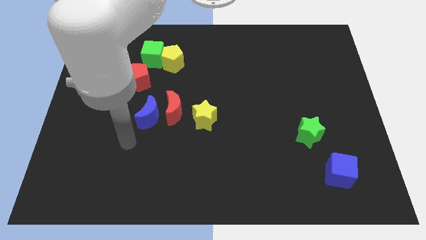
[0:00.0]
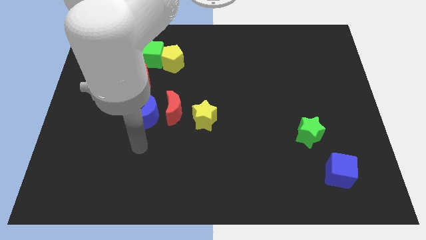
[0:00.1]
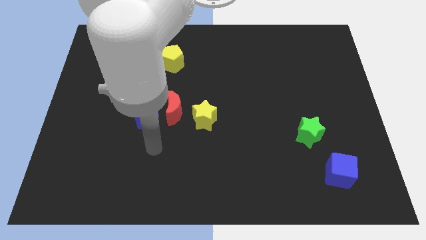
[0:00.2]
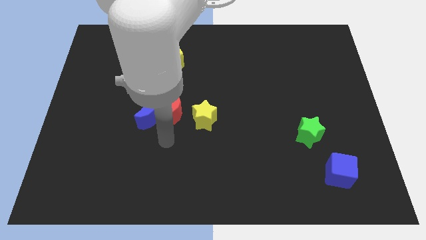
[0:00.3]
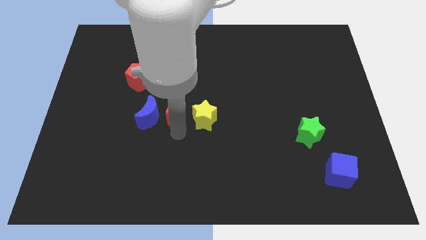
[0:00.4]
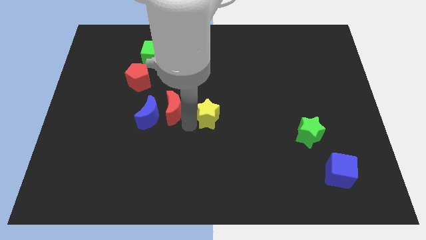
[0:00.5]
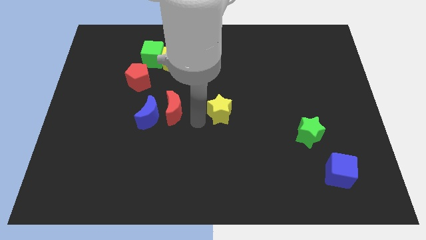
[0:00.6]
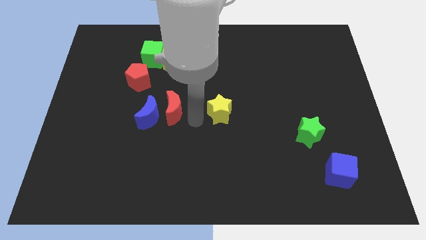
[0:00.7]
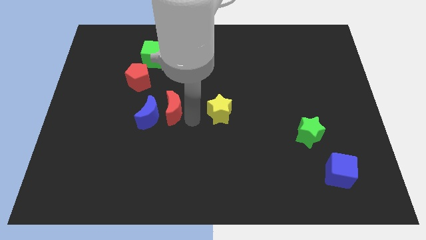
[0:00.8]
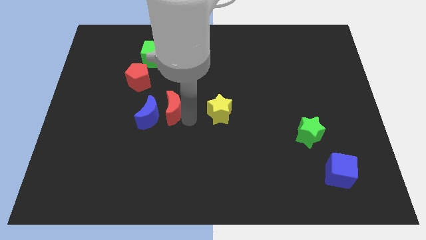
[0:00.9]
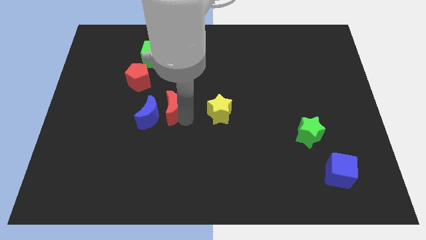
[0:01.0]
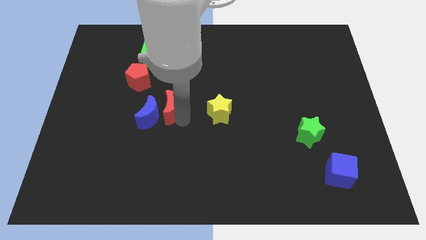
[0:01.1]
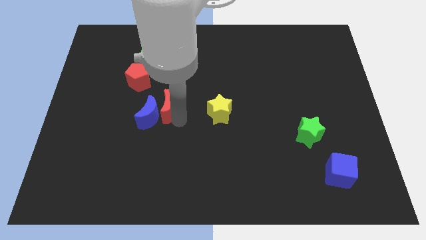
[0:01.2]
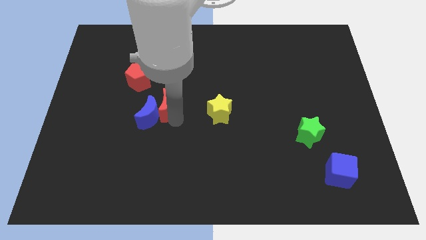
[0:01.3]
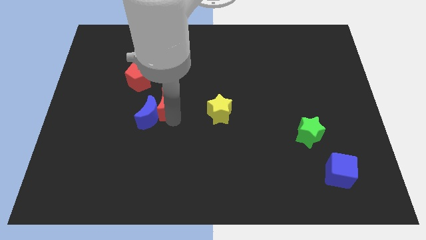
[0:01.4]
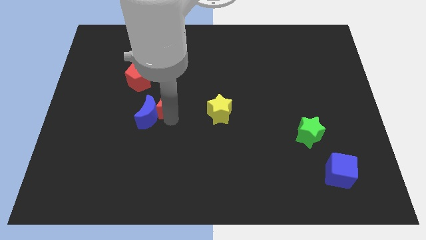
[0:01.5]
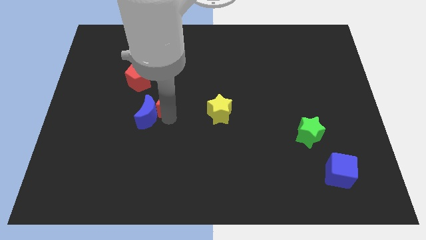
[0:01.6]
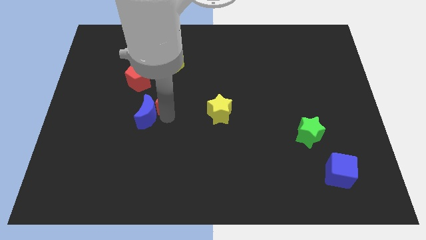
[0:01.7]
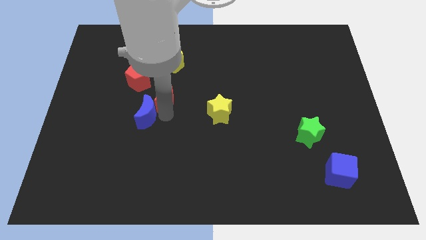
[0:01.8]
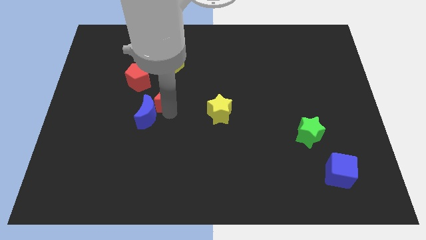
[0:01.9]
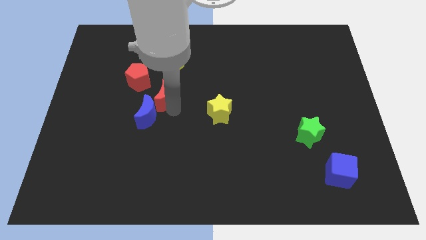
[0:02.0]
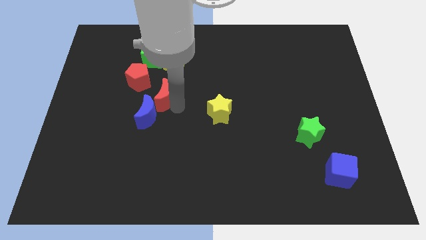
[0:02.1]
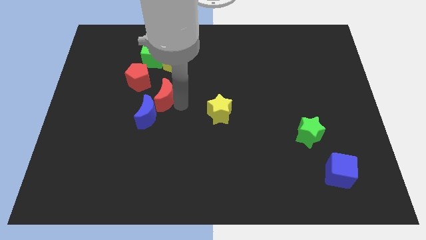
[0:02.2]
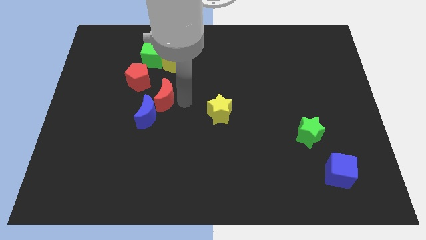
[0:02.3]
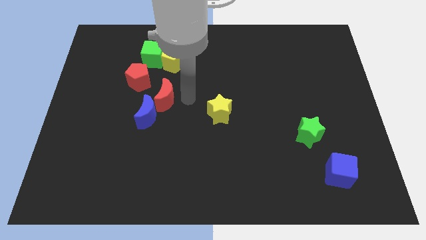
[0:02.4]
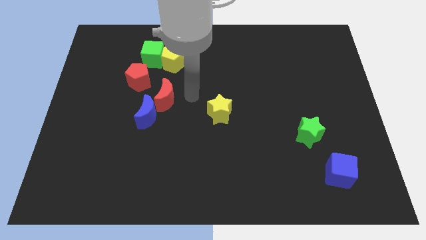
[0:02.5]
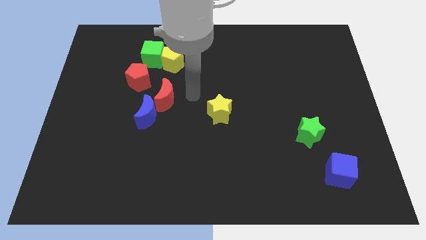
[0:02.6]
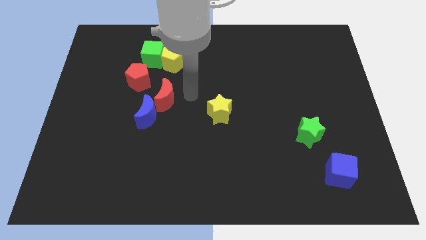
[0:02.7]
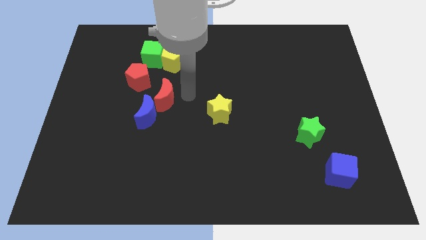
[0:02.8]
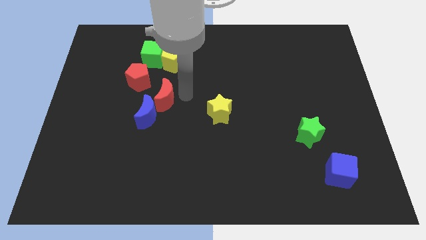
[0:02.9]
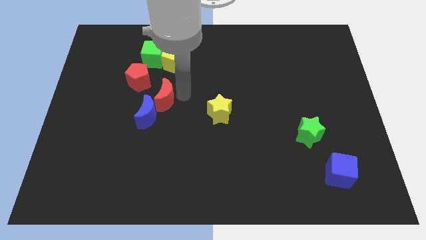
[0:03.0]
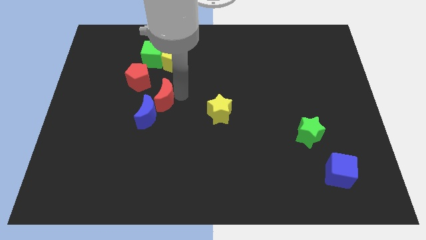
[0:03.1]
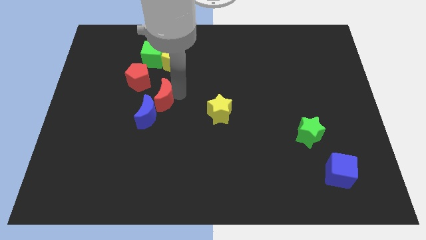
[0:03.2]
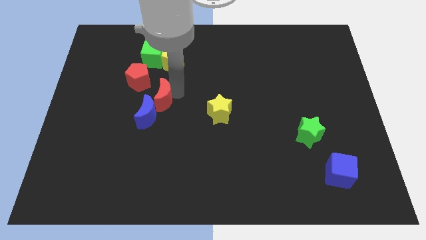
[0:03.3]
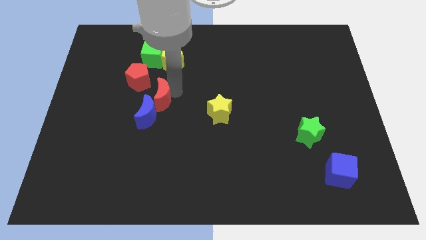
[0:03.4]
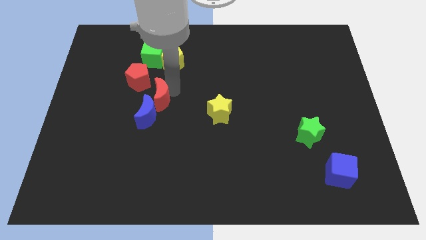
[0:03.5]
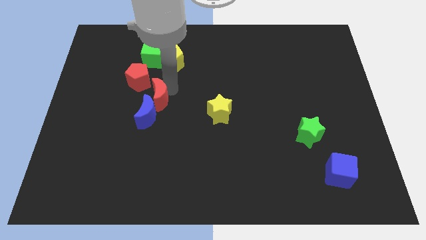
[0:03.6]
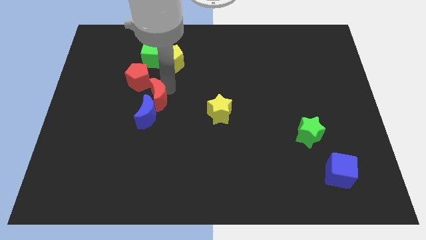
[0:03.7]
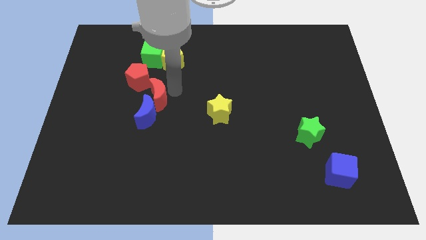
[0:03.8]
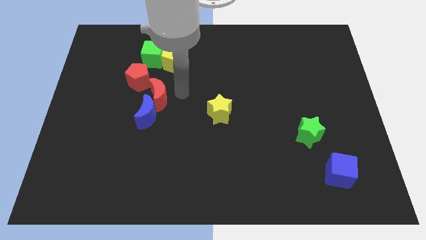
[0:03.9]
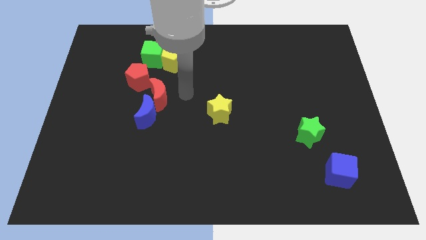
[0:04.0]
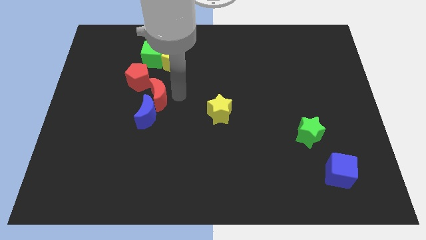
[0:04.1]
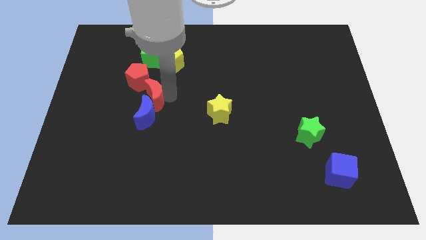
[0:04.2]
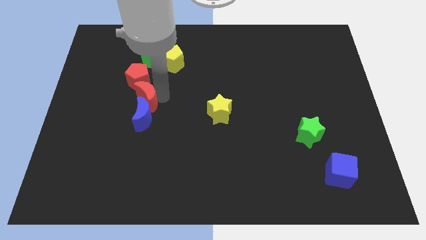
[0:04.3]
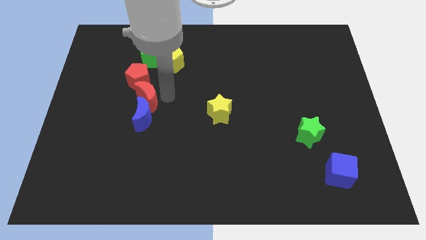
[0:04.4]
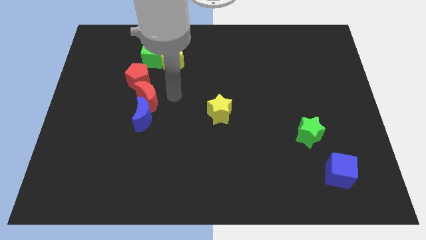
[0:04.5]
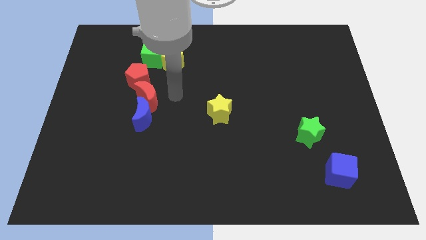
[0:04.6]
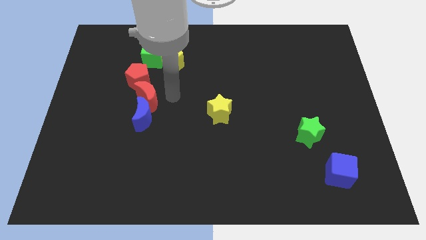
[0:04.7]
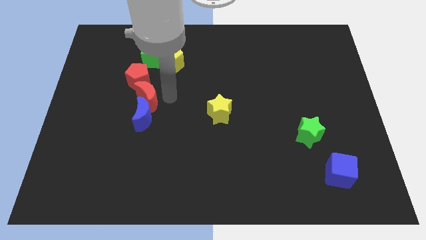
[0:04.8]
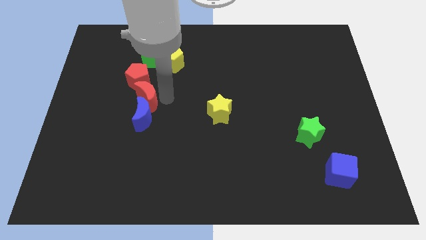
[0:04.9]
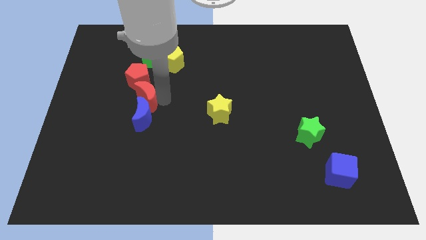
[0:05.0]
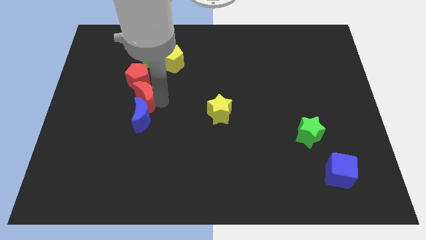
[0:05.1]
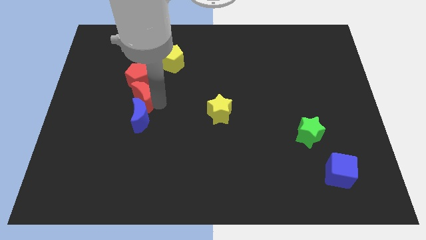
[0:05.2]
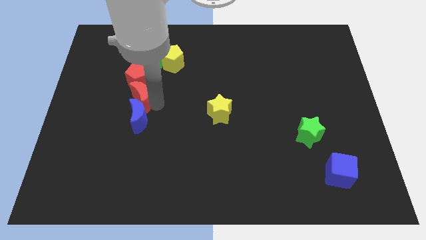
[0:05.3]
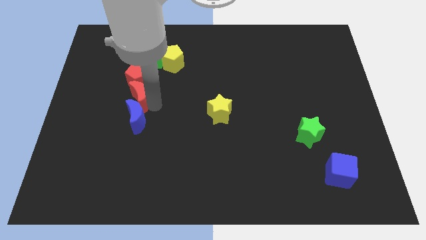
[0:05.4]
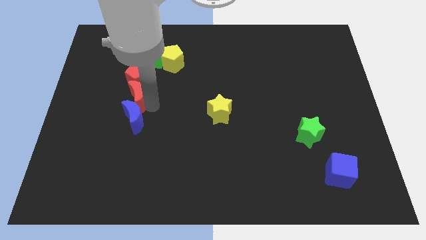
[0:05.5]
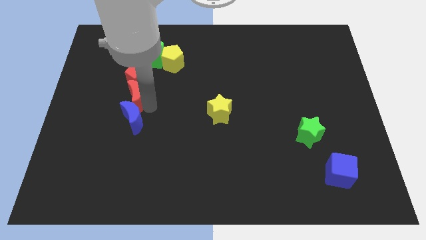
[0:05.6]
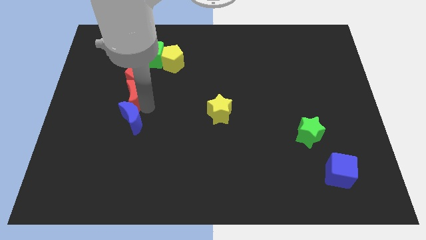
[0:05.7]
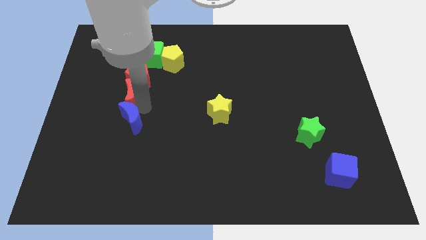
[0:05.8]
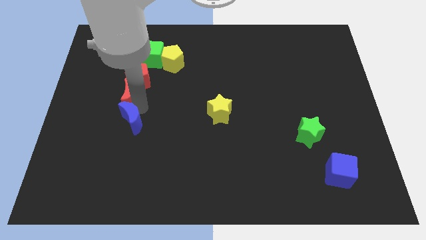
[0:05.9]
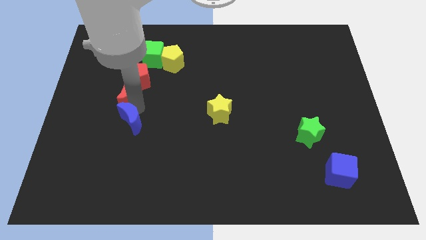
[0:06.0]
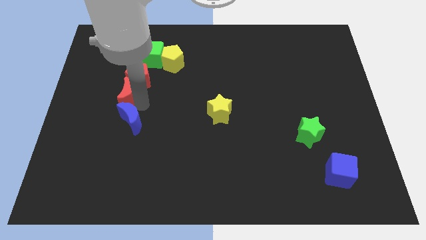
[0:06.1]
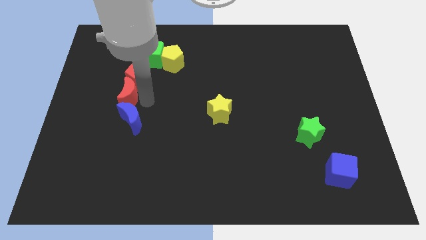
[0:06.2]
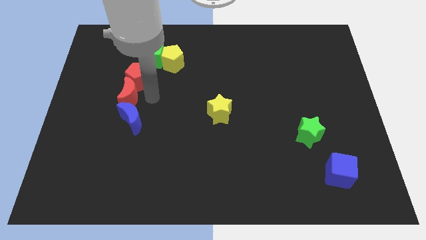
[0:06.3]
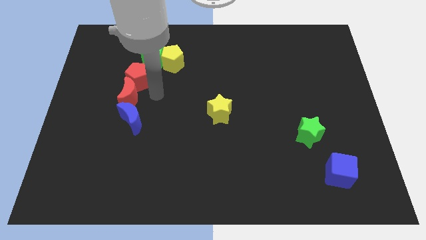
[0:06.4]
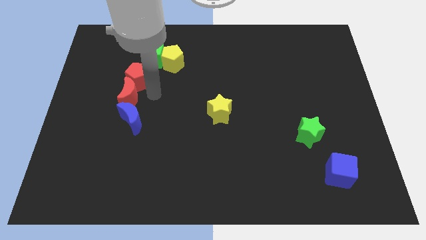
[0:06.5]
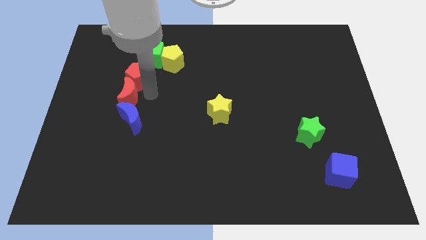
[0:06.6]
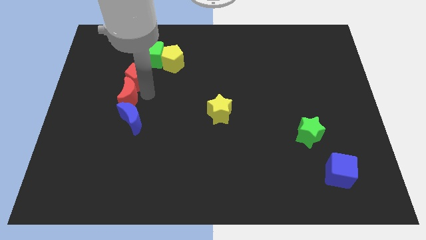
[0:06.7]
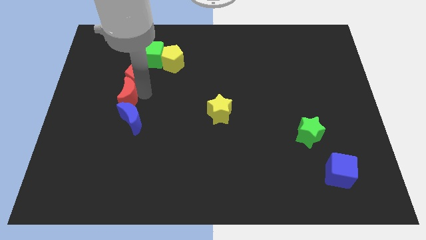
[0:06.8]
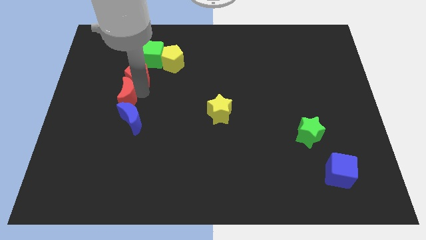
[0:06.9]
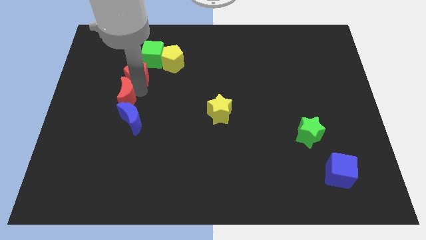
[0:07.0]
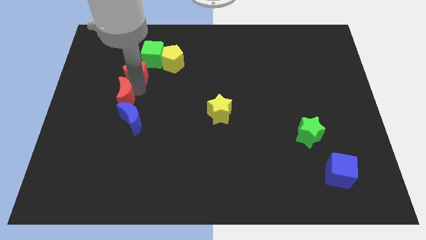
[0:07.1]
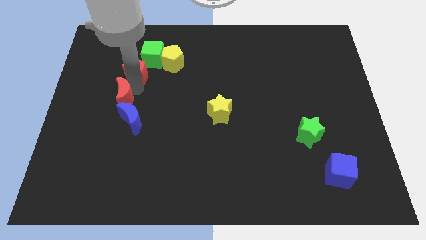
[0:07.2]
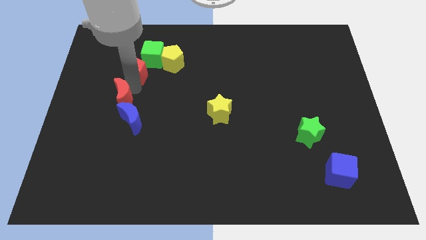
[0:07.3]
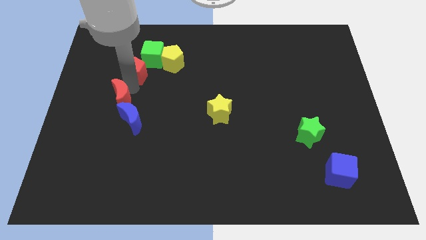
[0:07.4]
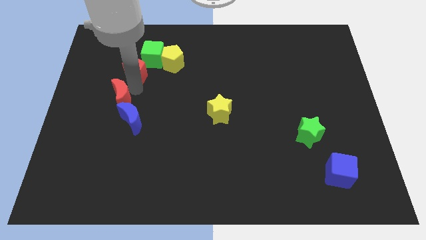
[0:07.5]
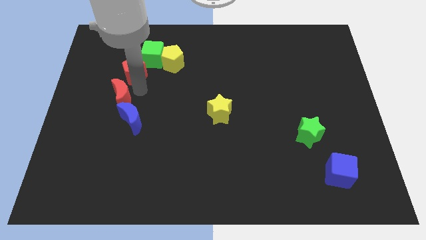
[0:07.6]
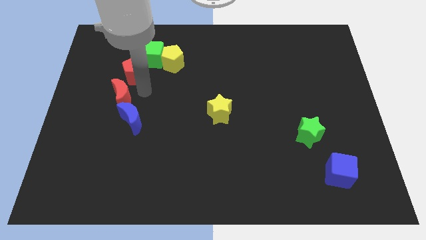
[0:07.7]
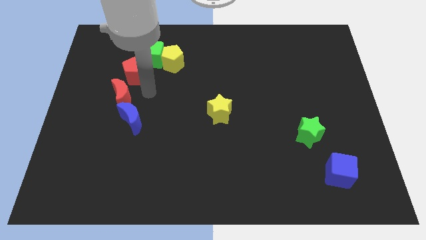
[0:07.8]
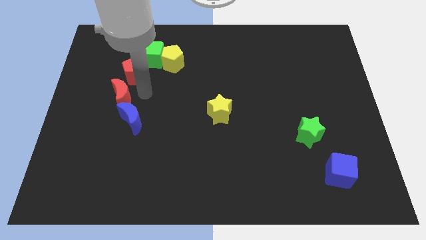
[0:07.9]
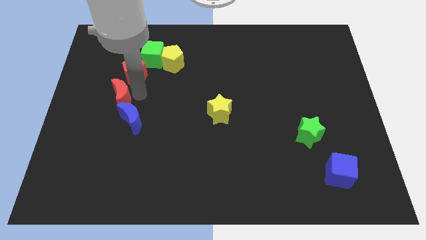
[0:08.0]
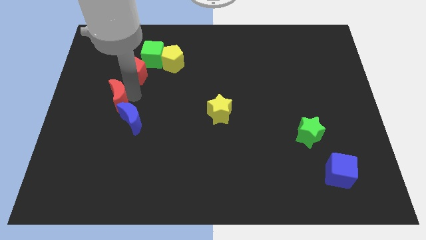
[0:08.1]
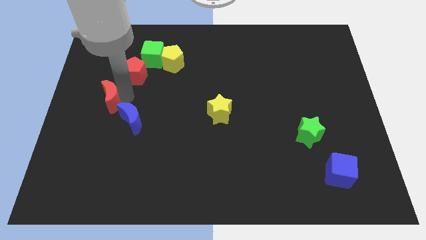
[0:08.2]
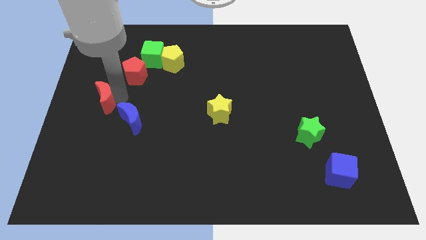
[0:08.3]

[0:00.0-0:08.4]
put the red moon to the left side
